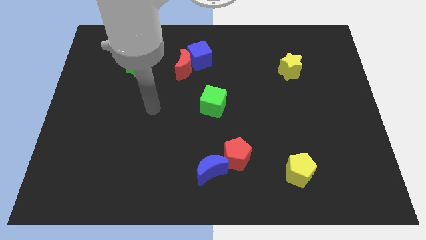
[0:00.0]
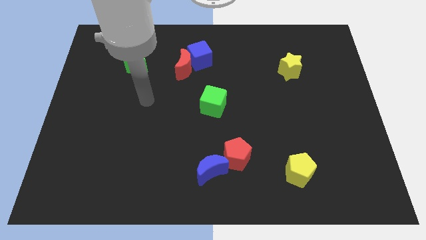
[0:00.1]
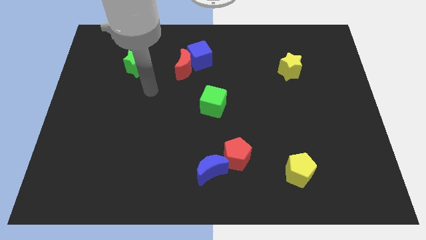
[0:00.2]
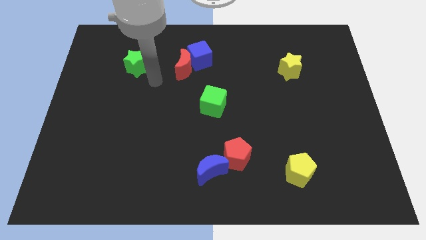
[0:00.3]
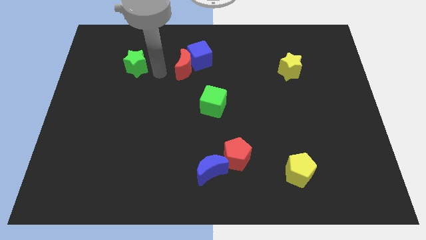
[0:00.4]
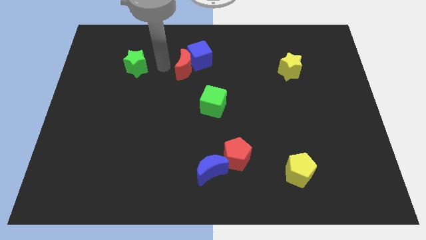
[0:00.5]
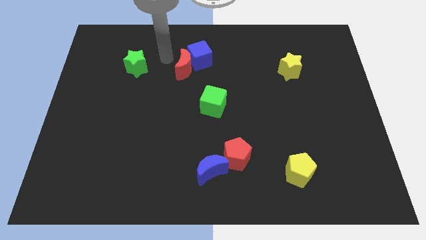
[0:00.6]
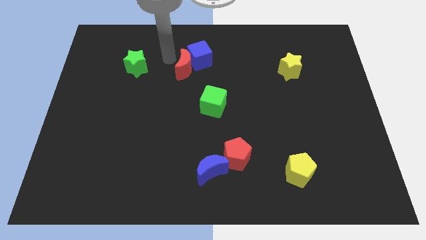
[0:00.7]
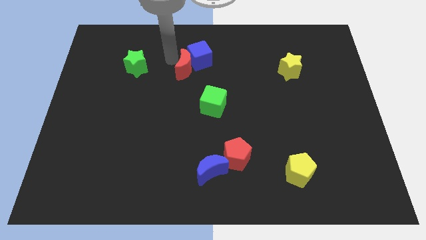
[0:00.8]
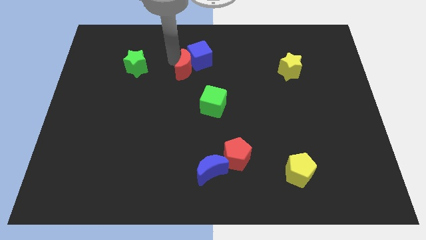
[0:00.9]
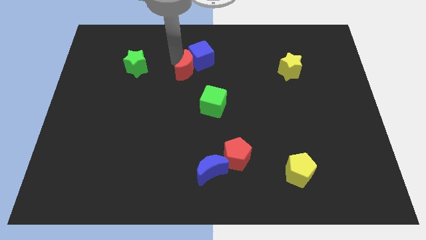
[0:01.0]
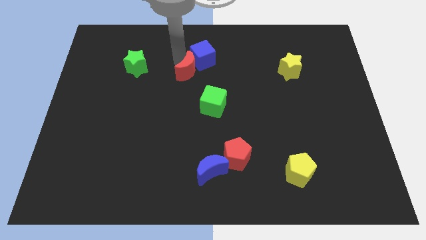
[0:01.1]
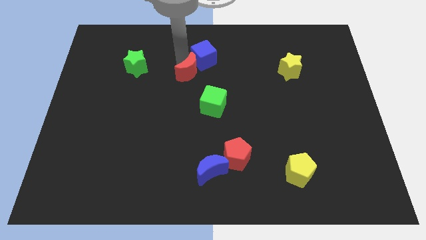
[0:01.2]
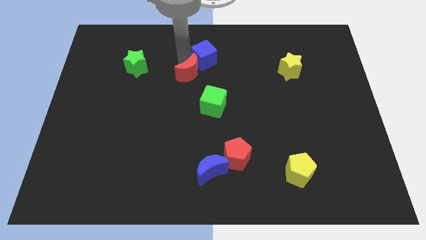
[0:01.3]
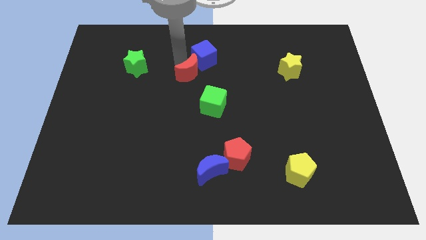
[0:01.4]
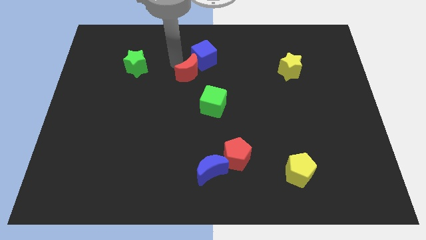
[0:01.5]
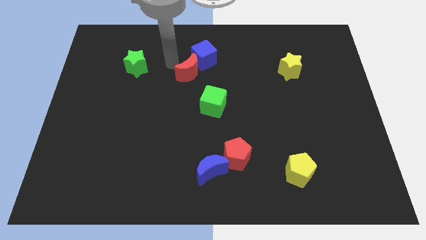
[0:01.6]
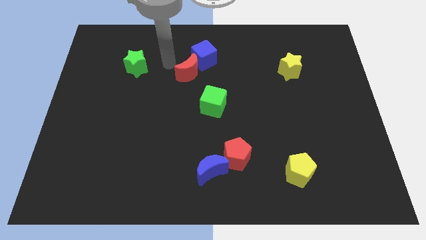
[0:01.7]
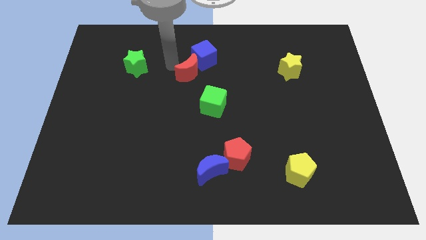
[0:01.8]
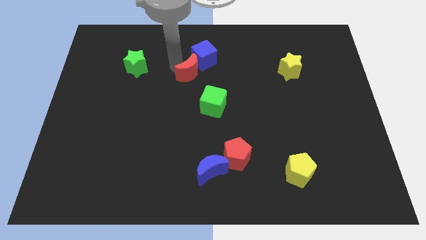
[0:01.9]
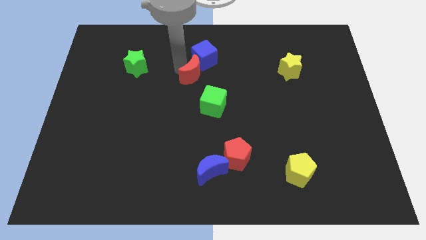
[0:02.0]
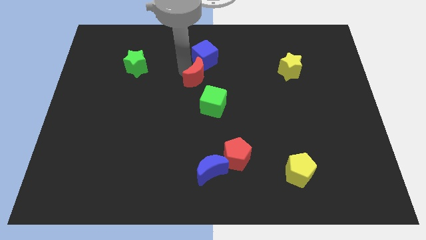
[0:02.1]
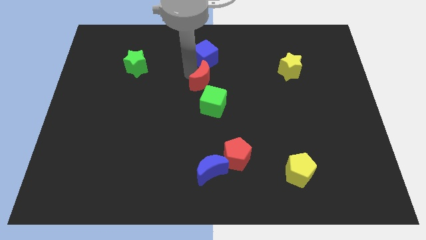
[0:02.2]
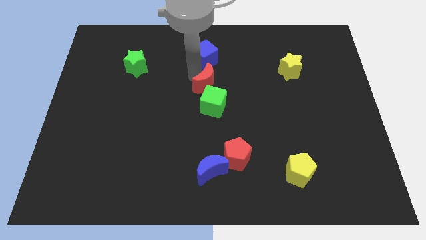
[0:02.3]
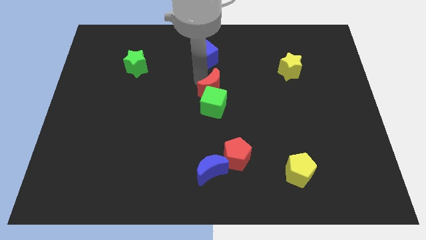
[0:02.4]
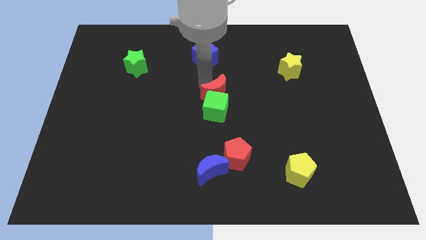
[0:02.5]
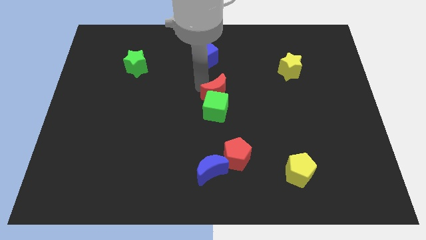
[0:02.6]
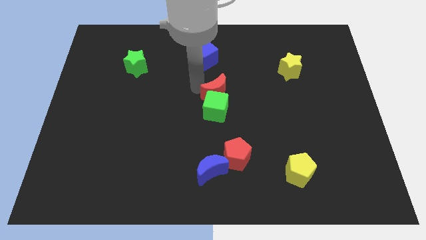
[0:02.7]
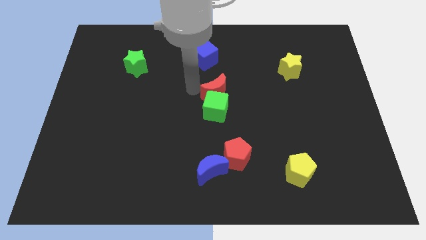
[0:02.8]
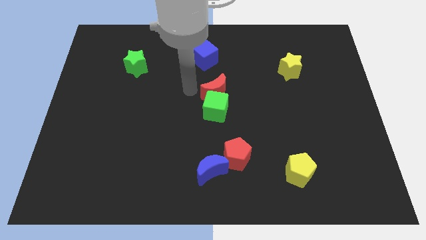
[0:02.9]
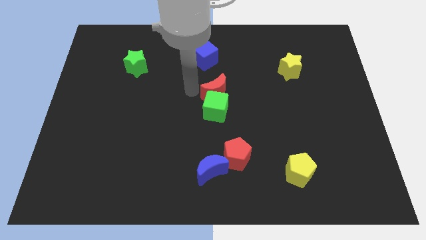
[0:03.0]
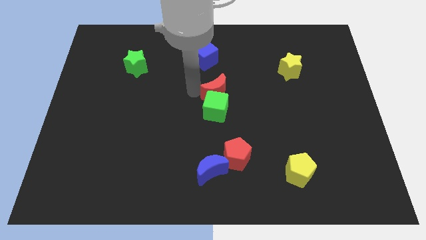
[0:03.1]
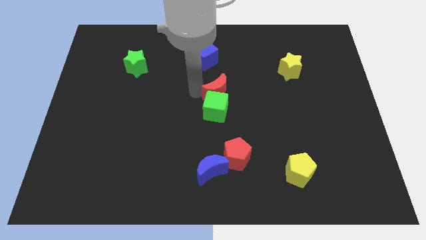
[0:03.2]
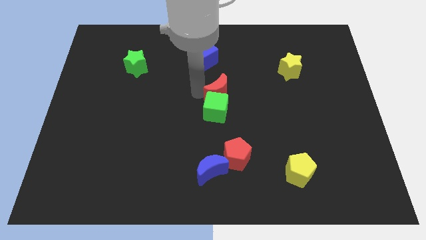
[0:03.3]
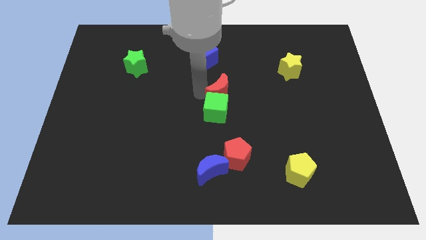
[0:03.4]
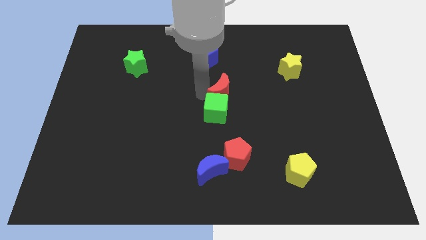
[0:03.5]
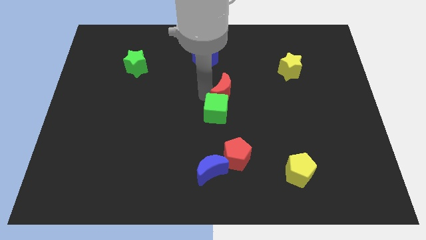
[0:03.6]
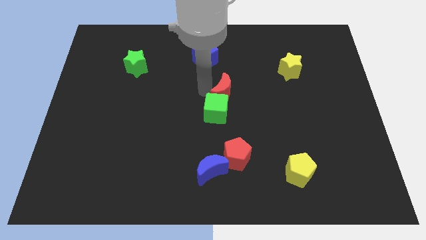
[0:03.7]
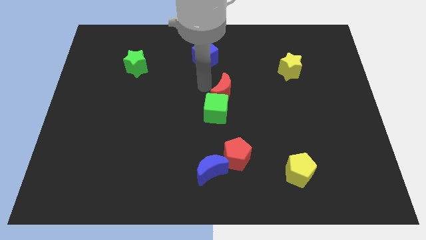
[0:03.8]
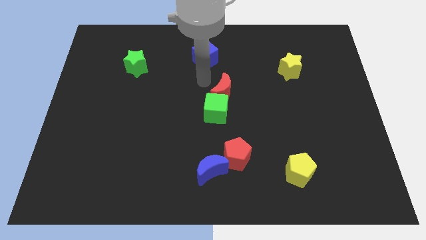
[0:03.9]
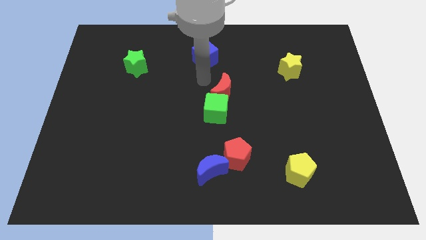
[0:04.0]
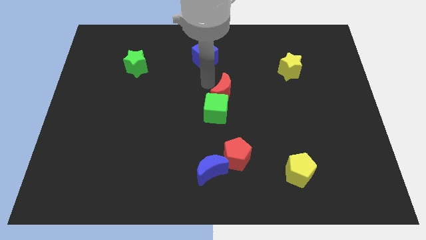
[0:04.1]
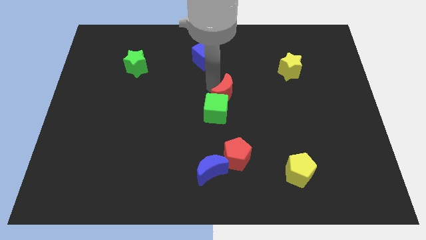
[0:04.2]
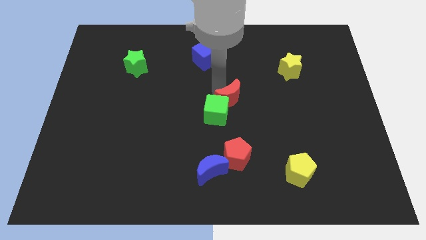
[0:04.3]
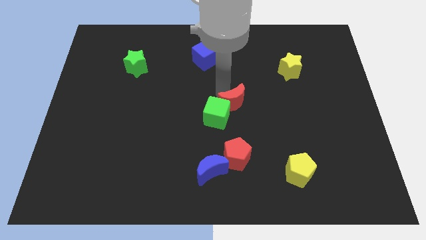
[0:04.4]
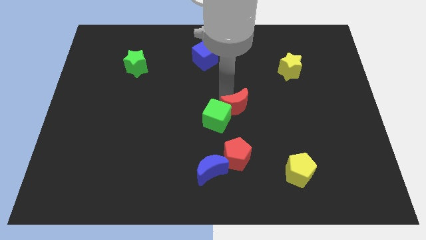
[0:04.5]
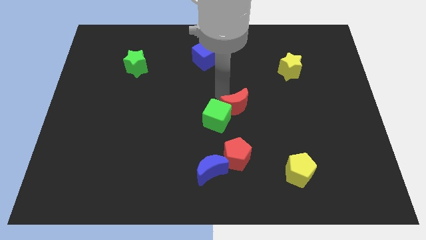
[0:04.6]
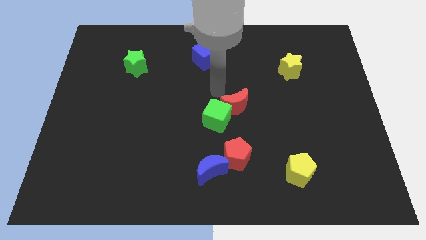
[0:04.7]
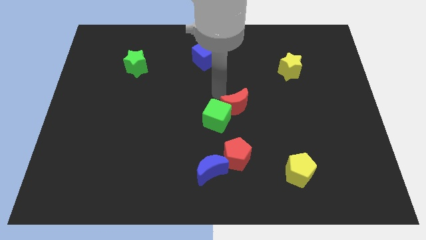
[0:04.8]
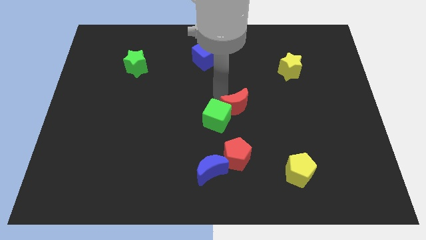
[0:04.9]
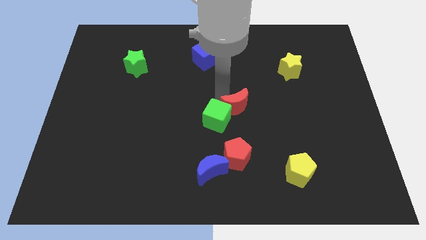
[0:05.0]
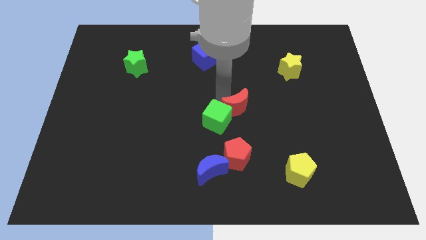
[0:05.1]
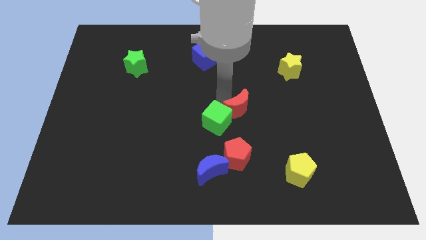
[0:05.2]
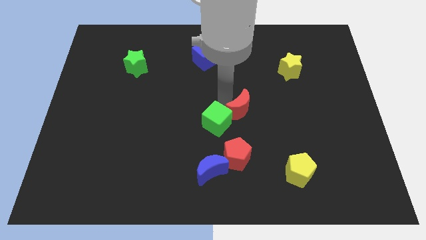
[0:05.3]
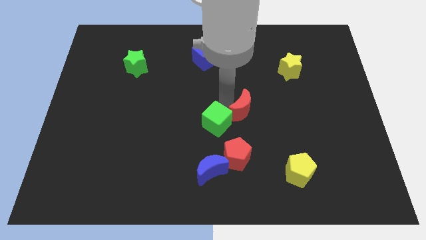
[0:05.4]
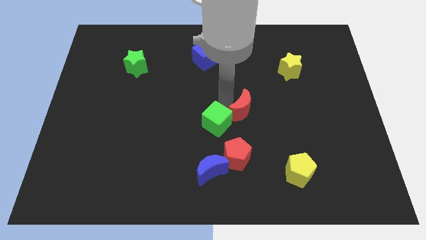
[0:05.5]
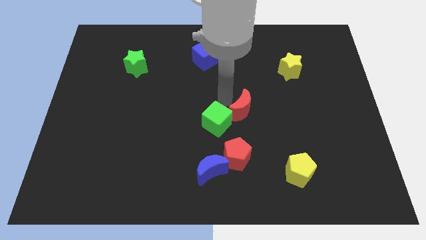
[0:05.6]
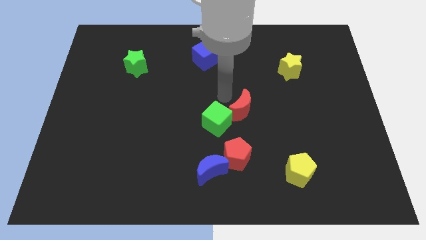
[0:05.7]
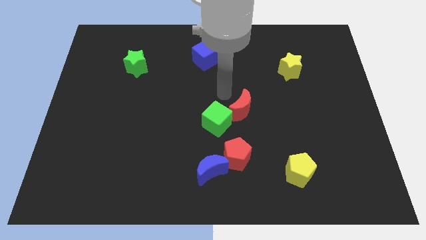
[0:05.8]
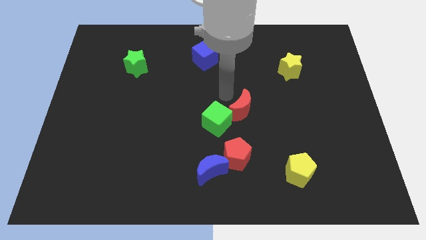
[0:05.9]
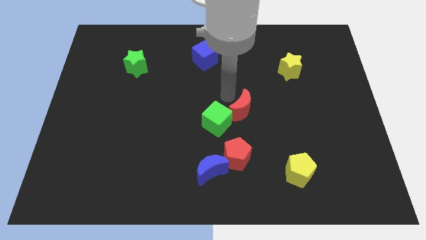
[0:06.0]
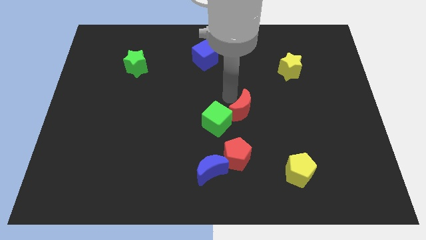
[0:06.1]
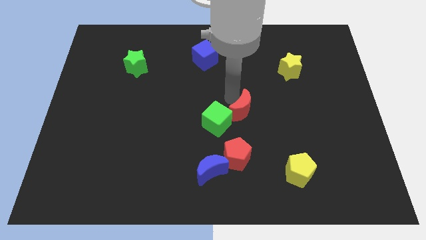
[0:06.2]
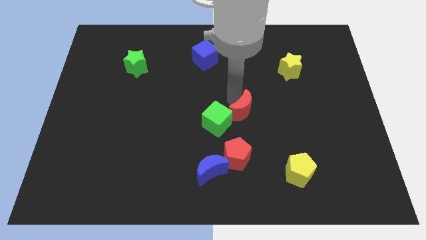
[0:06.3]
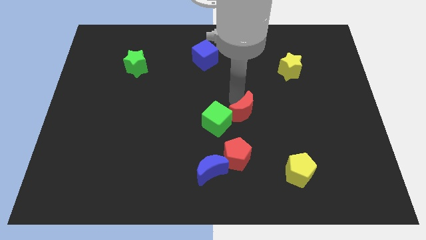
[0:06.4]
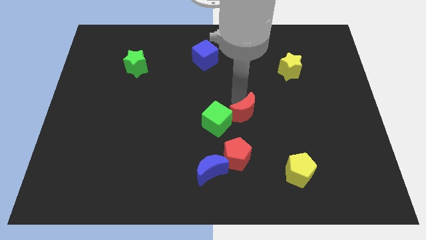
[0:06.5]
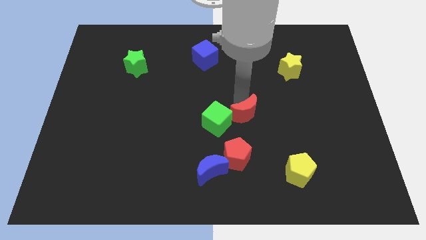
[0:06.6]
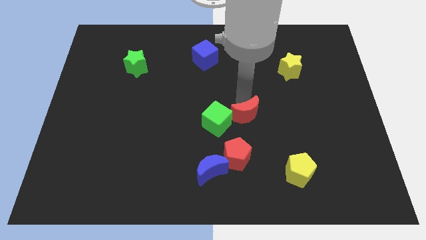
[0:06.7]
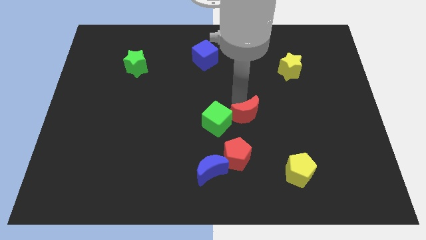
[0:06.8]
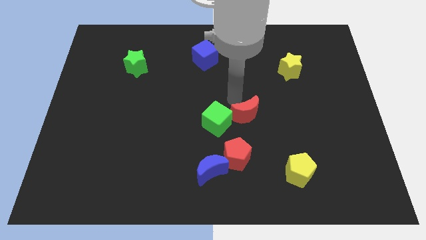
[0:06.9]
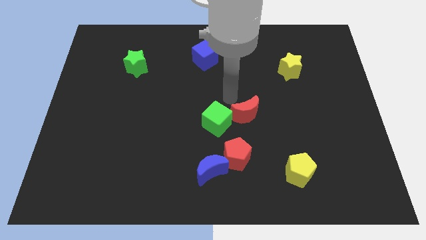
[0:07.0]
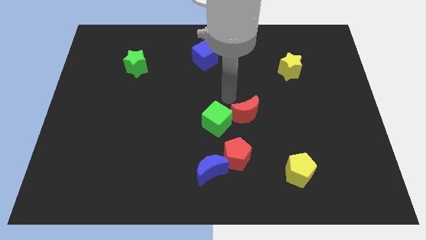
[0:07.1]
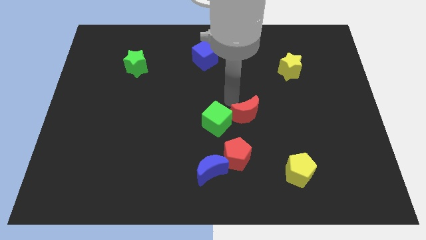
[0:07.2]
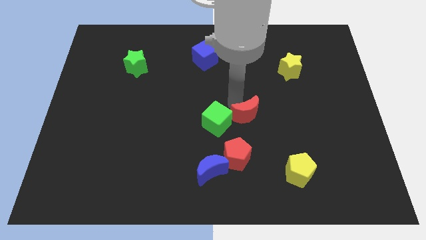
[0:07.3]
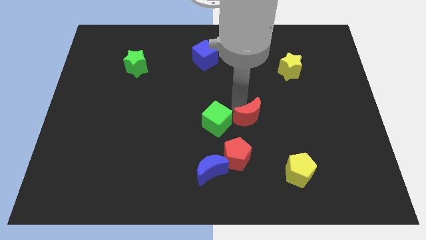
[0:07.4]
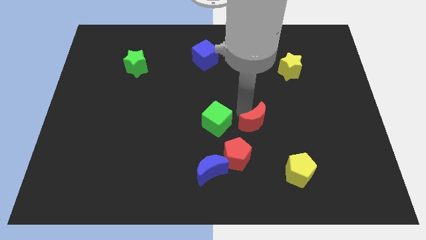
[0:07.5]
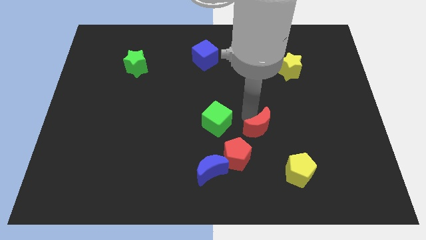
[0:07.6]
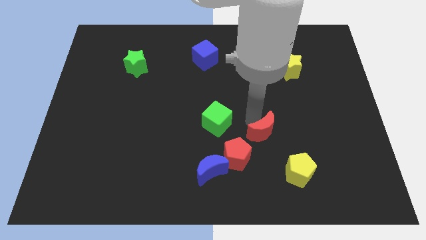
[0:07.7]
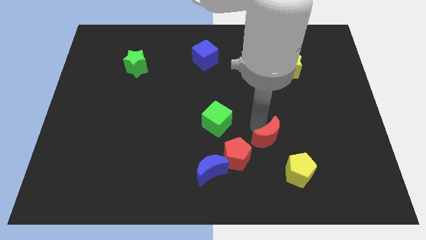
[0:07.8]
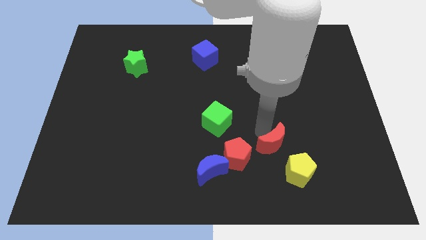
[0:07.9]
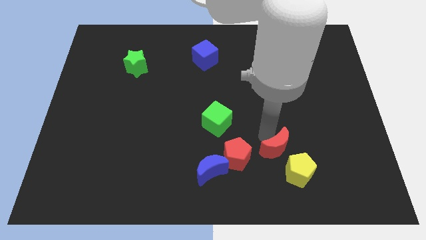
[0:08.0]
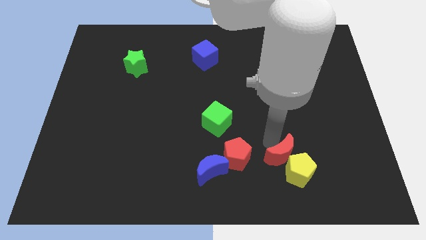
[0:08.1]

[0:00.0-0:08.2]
push the red moon close to the yellow pentagon
